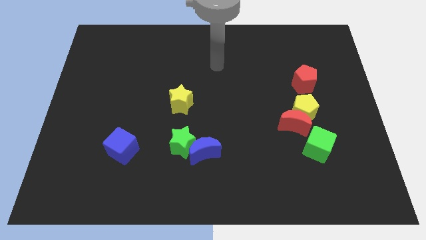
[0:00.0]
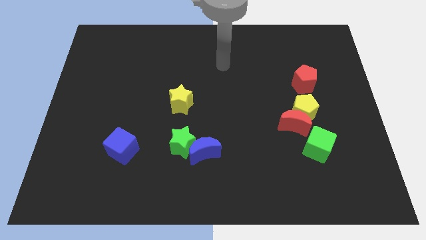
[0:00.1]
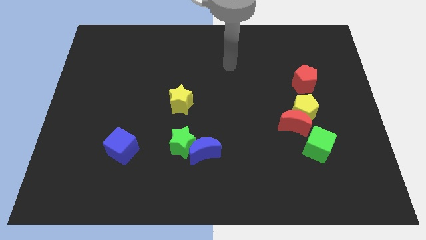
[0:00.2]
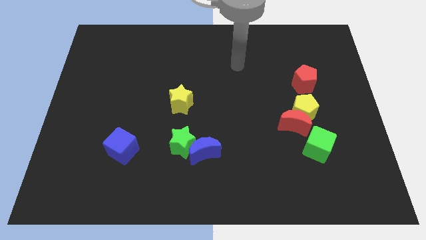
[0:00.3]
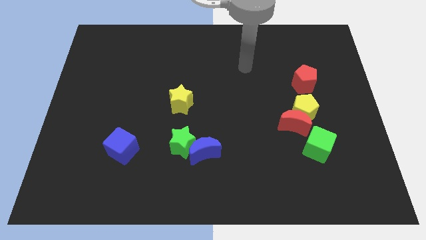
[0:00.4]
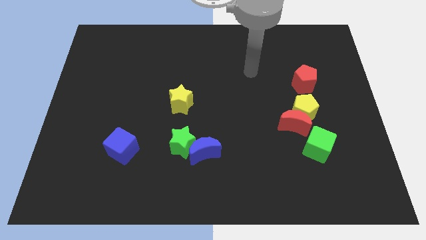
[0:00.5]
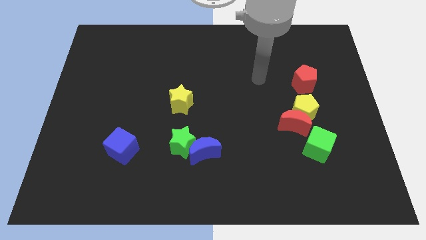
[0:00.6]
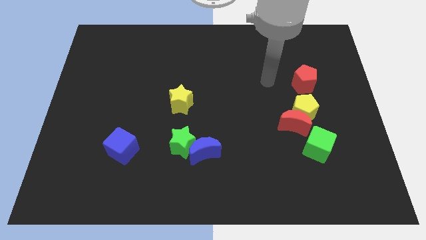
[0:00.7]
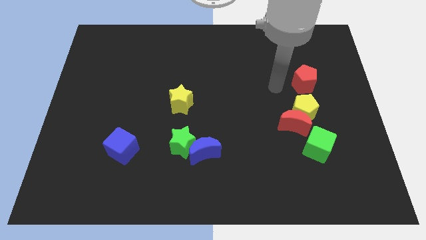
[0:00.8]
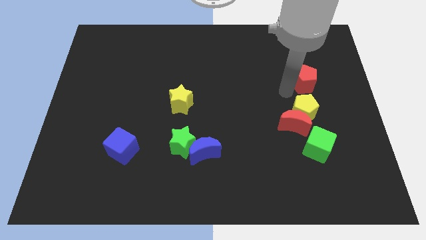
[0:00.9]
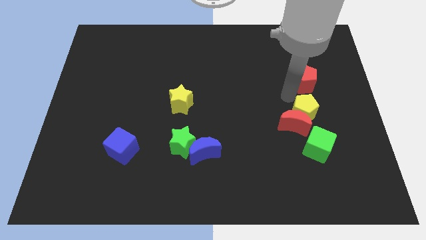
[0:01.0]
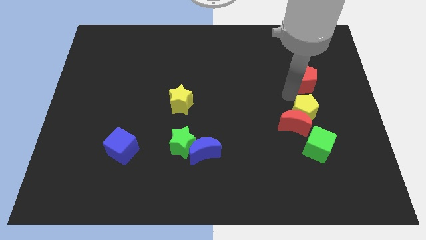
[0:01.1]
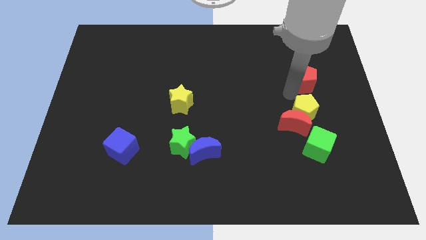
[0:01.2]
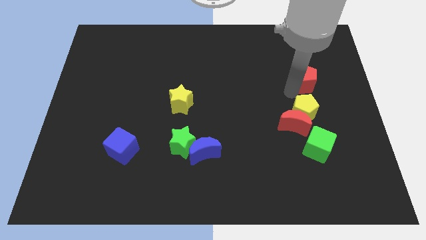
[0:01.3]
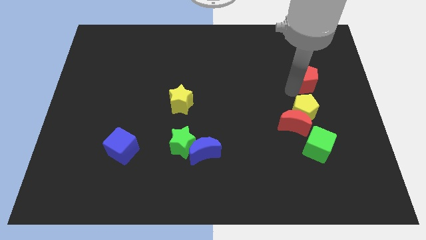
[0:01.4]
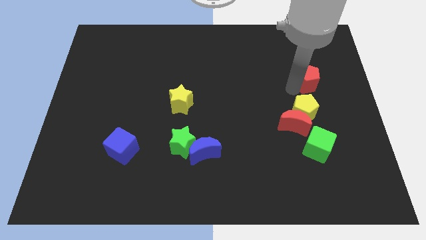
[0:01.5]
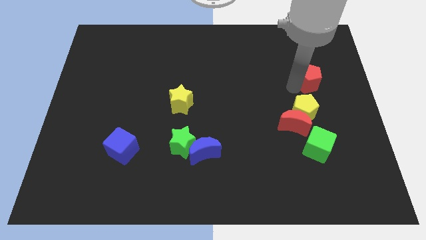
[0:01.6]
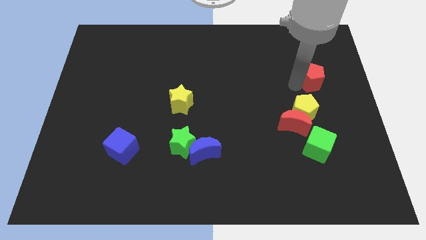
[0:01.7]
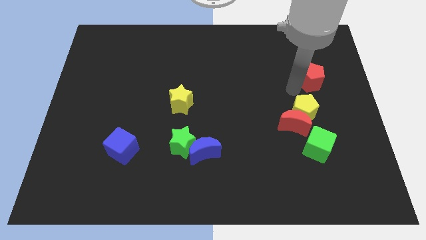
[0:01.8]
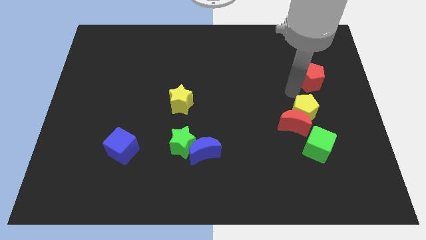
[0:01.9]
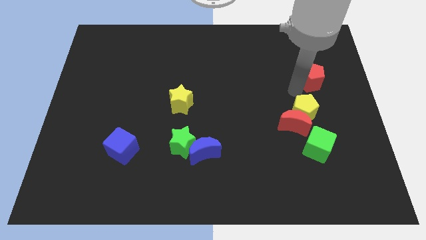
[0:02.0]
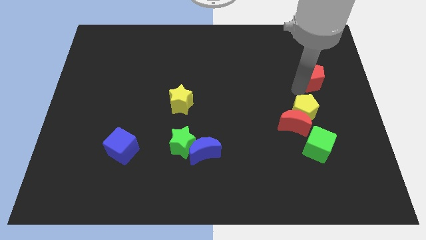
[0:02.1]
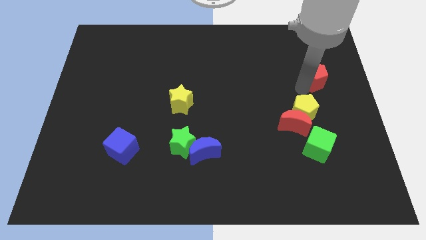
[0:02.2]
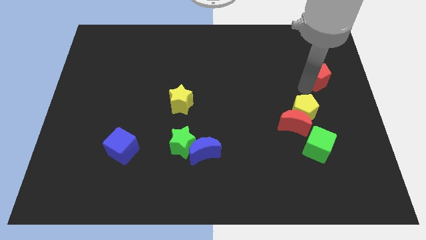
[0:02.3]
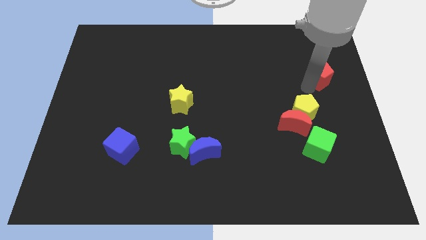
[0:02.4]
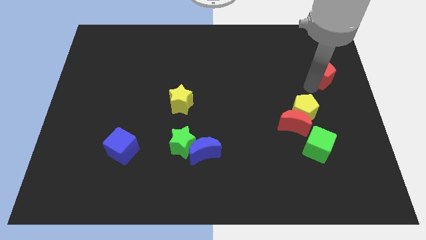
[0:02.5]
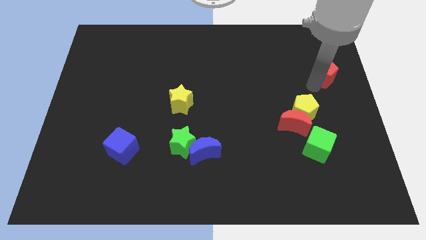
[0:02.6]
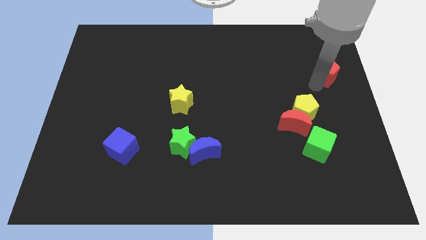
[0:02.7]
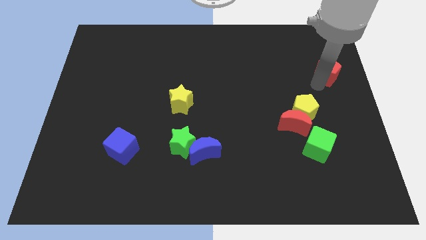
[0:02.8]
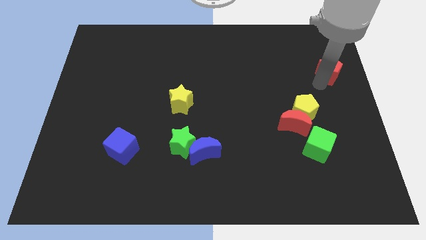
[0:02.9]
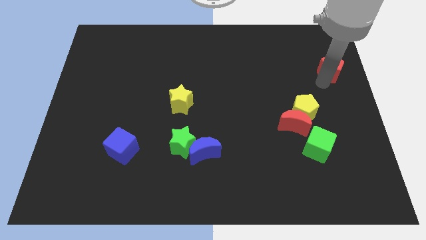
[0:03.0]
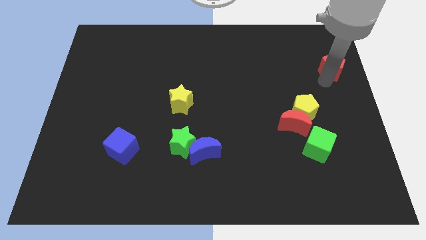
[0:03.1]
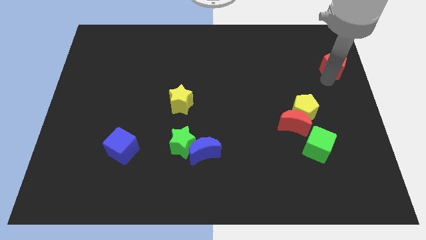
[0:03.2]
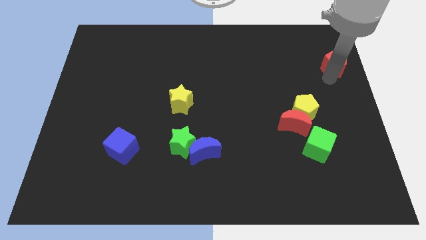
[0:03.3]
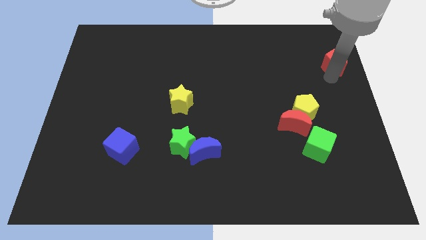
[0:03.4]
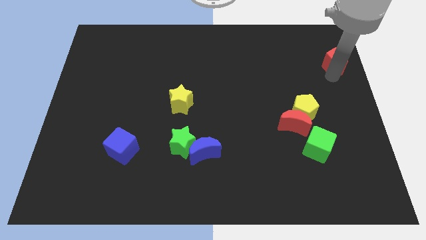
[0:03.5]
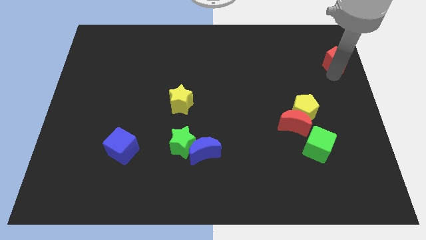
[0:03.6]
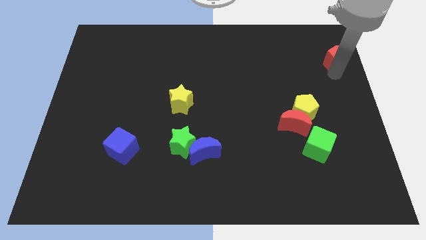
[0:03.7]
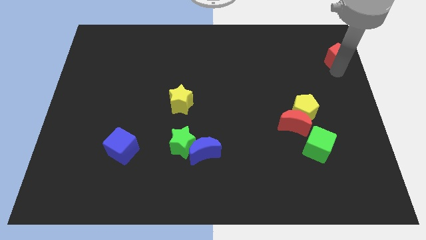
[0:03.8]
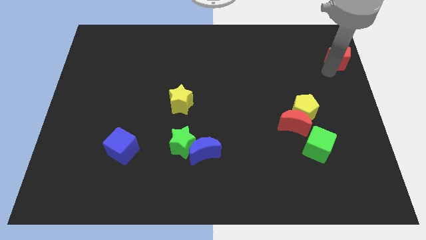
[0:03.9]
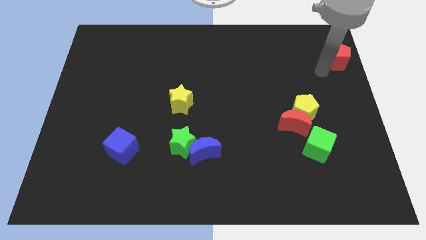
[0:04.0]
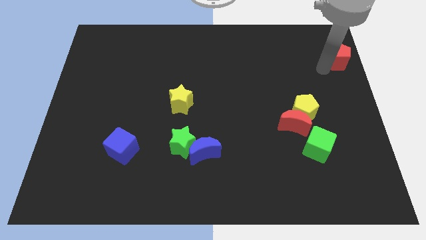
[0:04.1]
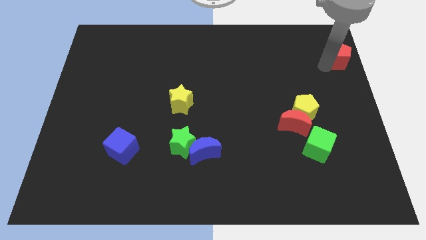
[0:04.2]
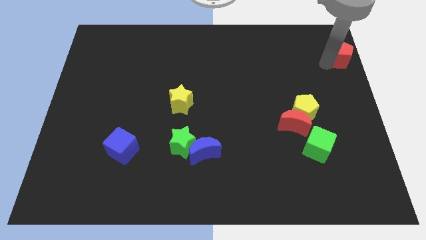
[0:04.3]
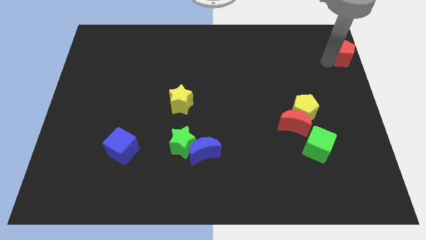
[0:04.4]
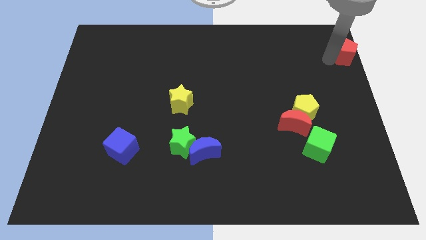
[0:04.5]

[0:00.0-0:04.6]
push the red pentagon to the top right of the board

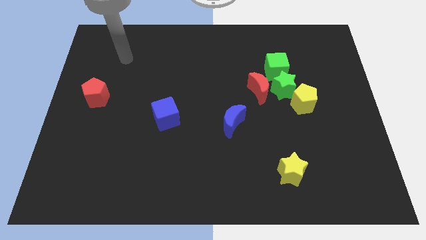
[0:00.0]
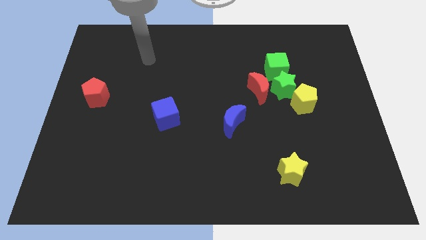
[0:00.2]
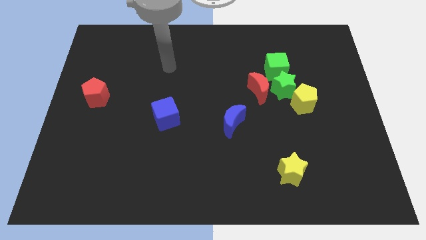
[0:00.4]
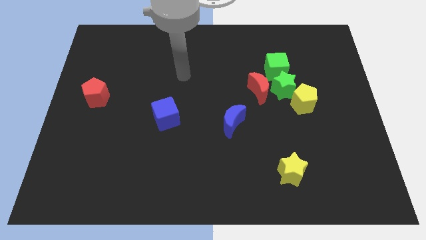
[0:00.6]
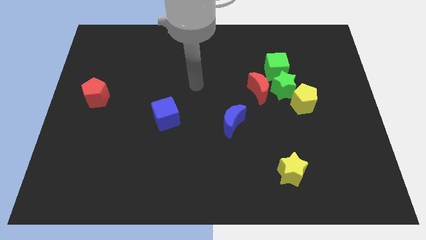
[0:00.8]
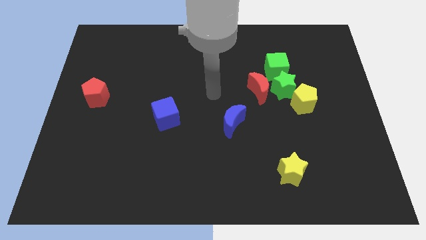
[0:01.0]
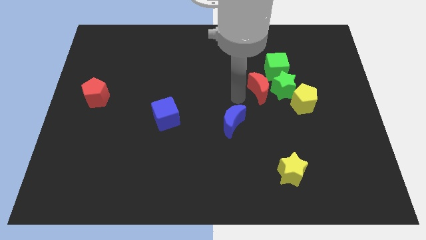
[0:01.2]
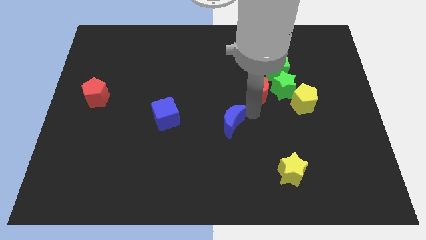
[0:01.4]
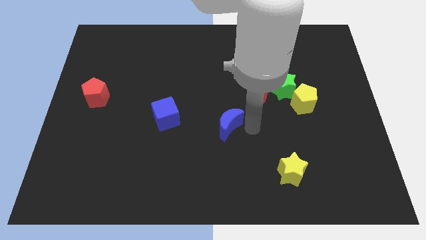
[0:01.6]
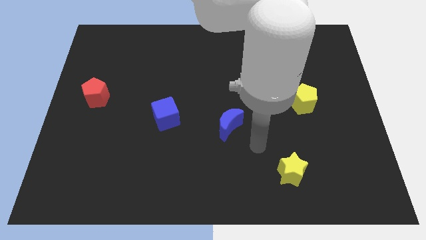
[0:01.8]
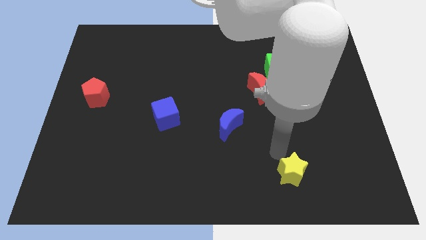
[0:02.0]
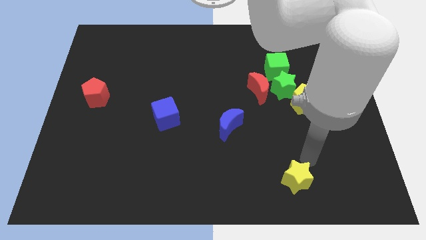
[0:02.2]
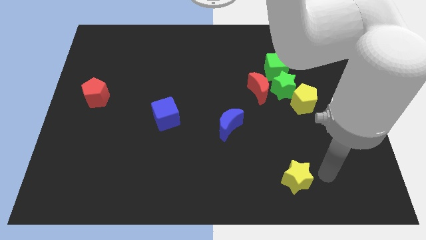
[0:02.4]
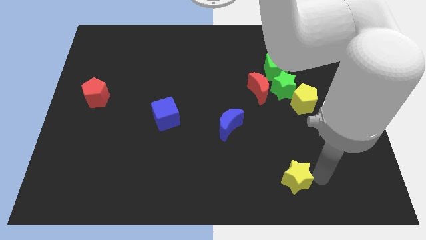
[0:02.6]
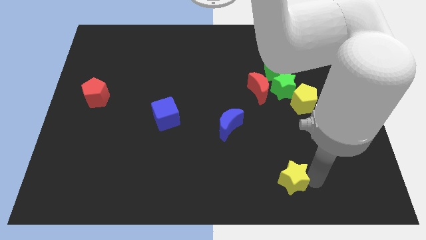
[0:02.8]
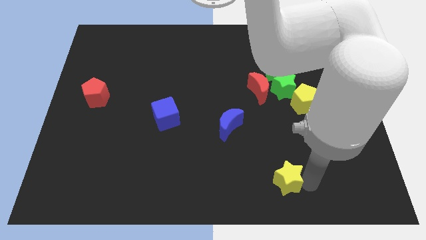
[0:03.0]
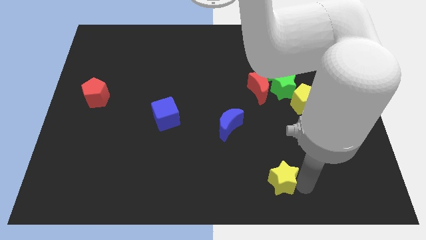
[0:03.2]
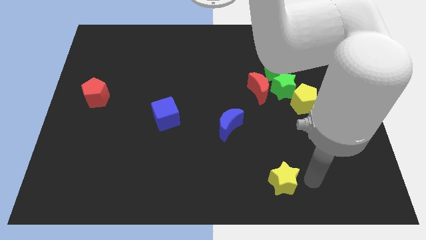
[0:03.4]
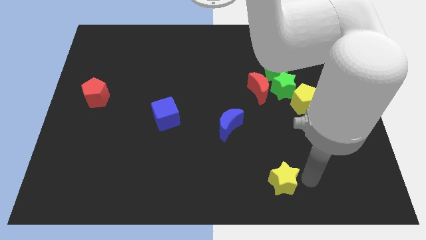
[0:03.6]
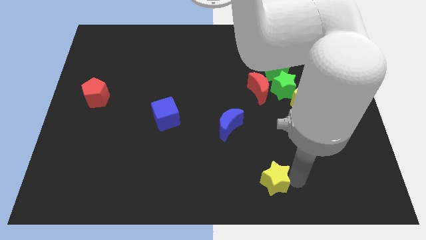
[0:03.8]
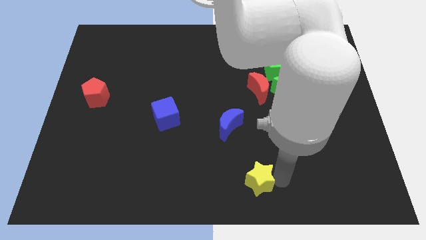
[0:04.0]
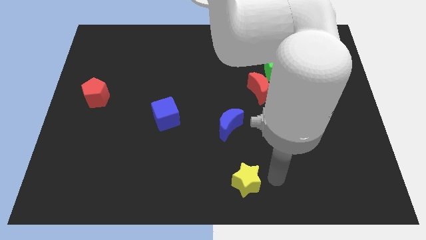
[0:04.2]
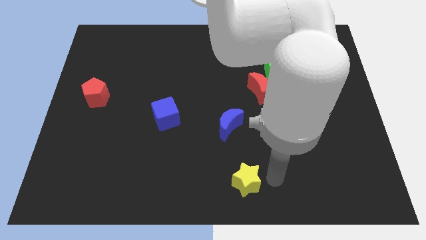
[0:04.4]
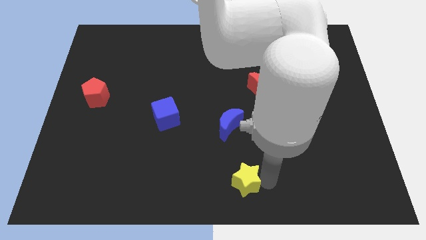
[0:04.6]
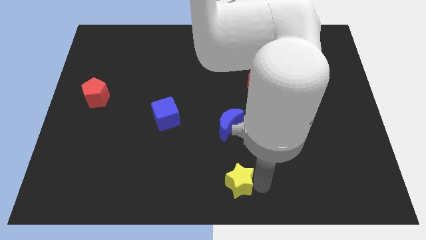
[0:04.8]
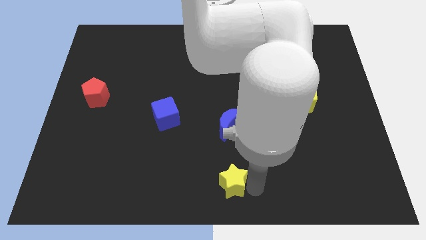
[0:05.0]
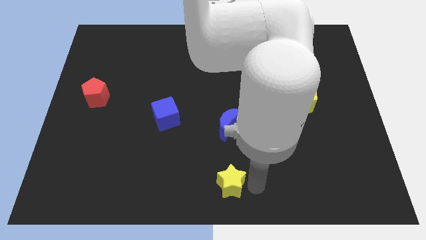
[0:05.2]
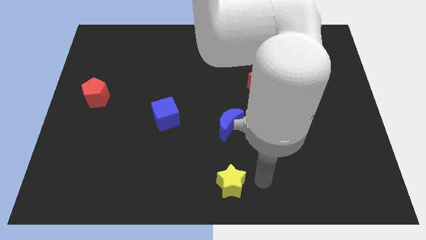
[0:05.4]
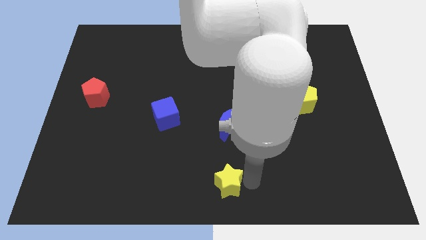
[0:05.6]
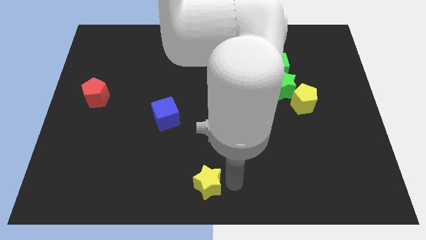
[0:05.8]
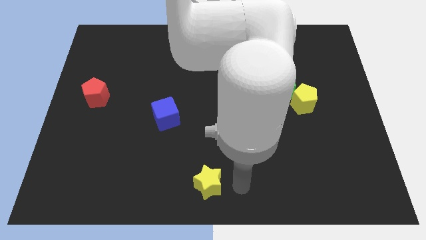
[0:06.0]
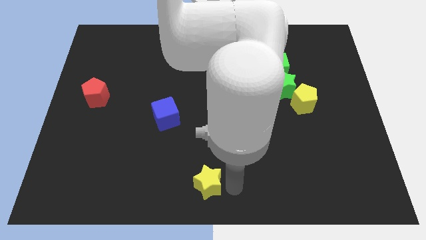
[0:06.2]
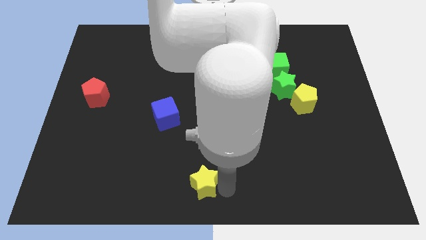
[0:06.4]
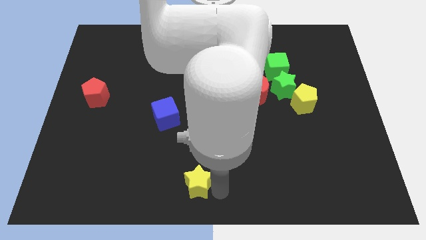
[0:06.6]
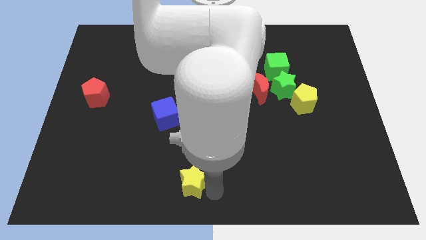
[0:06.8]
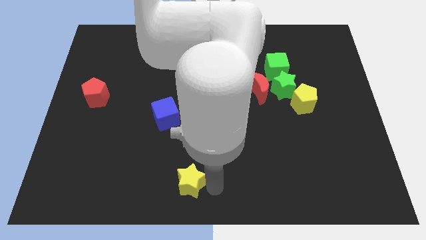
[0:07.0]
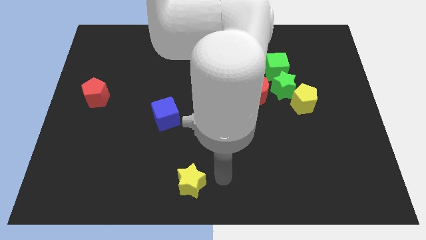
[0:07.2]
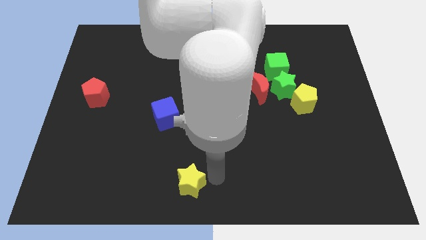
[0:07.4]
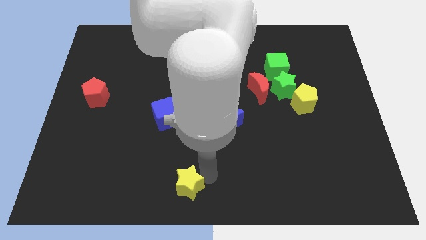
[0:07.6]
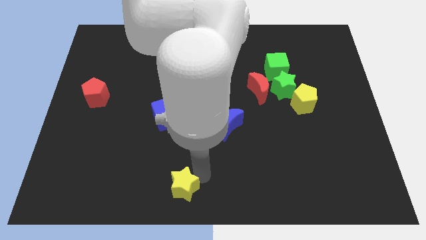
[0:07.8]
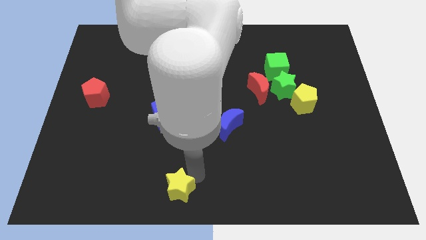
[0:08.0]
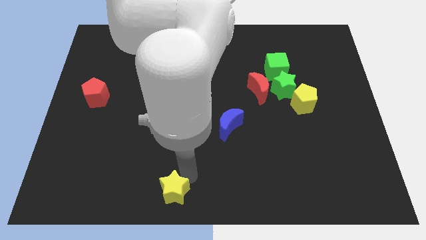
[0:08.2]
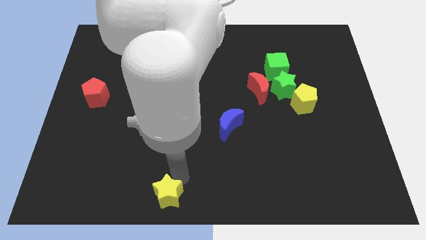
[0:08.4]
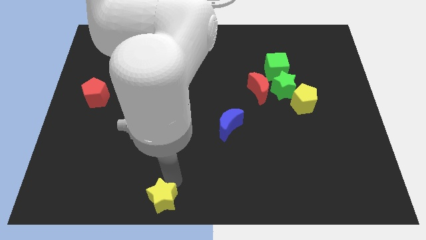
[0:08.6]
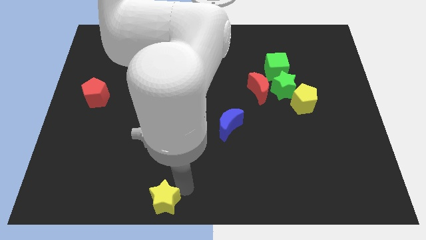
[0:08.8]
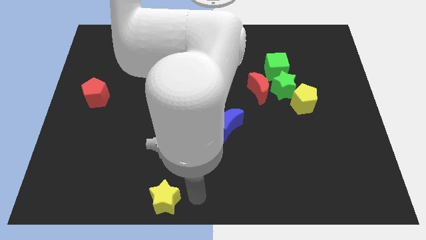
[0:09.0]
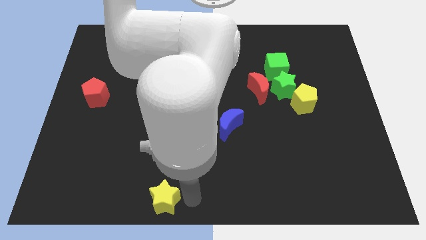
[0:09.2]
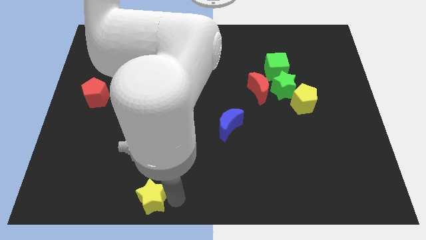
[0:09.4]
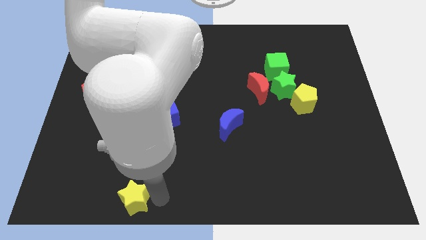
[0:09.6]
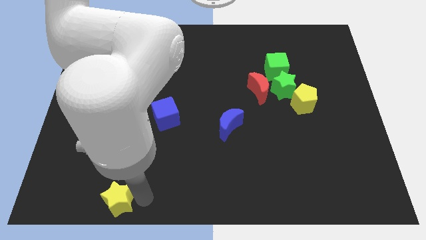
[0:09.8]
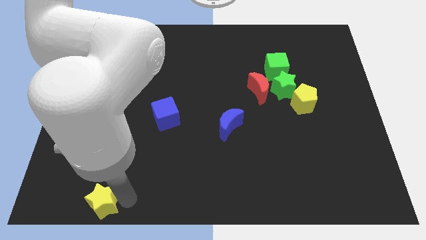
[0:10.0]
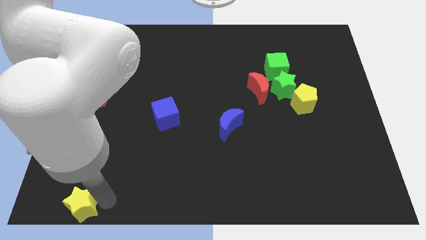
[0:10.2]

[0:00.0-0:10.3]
move the yellow star to the bottom left
